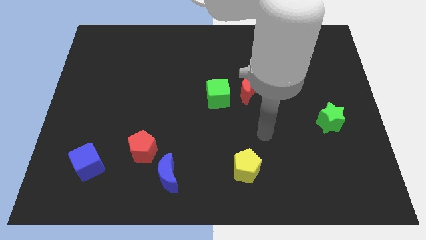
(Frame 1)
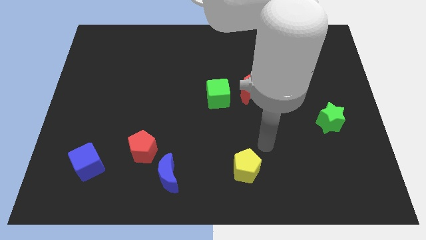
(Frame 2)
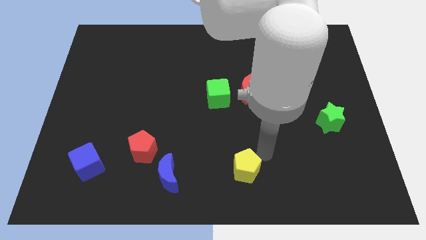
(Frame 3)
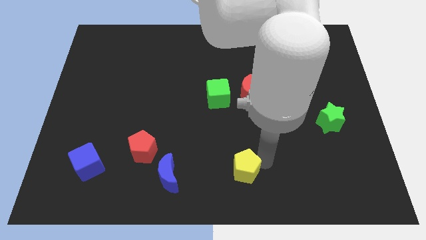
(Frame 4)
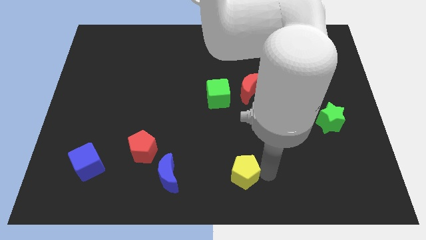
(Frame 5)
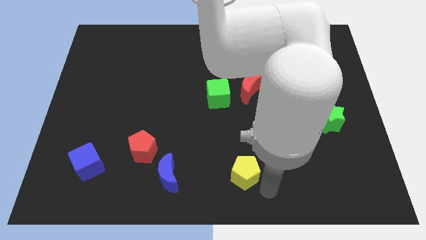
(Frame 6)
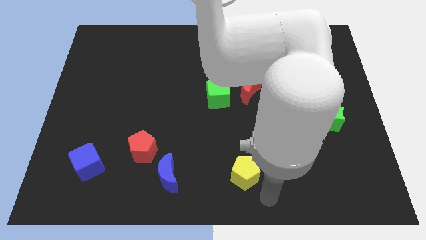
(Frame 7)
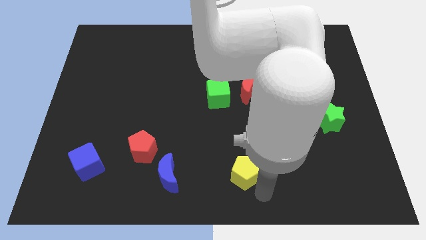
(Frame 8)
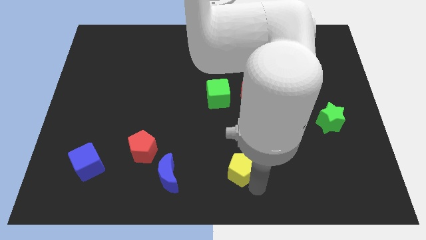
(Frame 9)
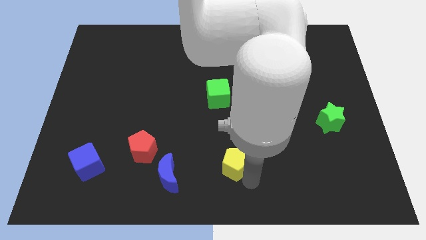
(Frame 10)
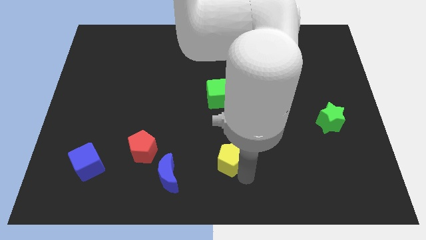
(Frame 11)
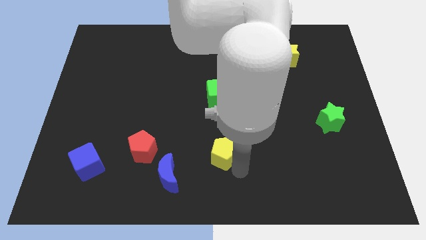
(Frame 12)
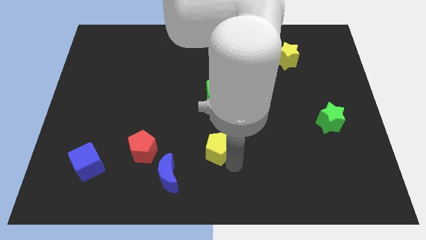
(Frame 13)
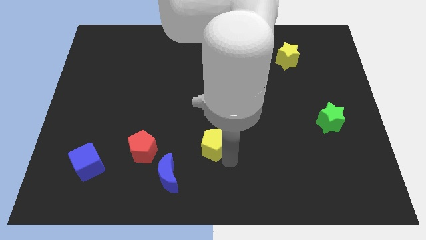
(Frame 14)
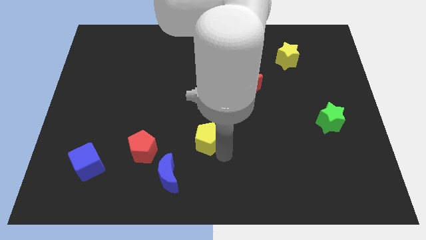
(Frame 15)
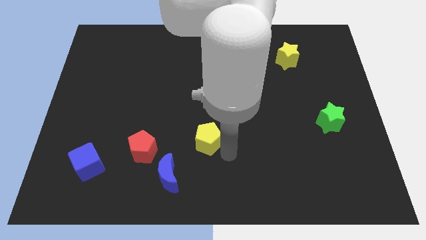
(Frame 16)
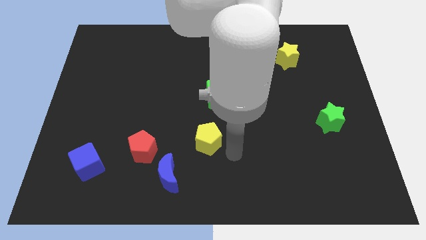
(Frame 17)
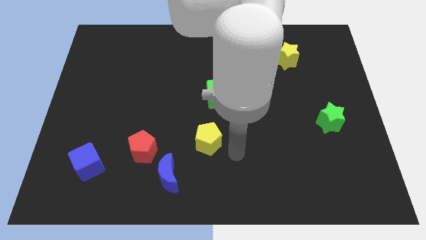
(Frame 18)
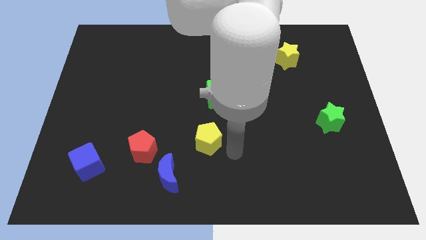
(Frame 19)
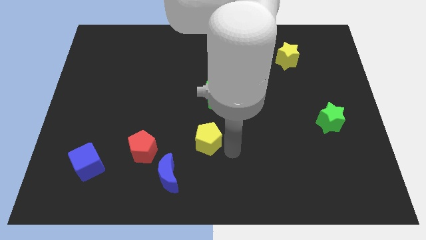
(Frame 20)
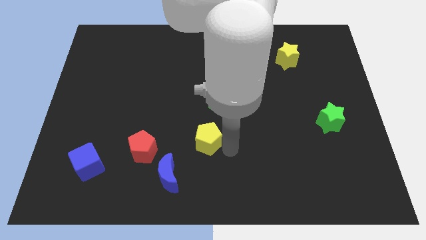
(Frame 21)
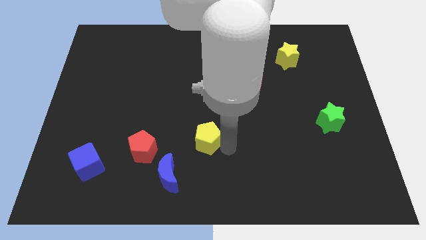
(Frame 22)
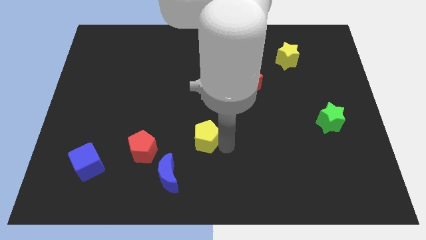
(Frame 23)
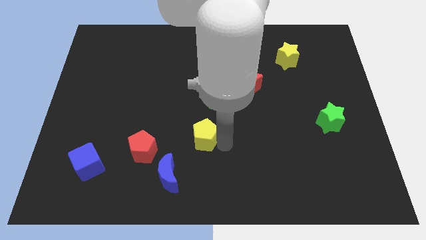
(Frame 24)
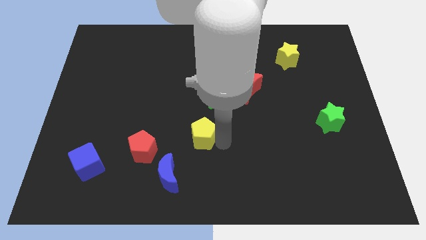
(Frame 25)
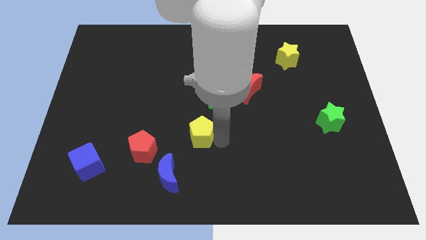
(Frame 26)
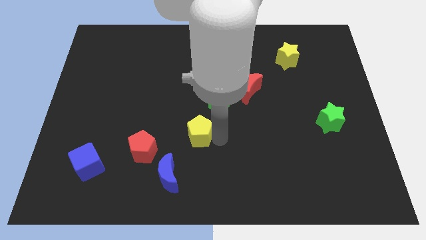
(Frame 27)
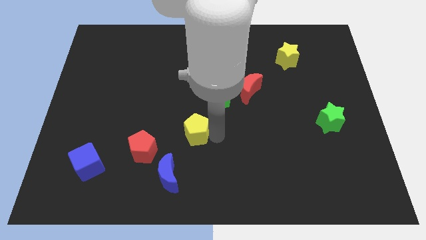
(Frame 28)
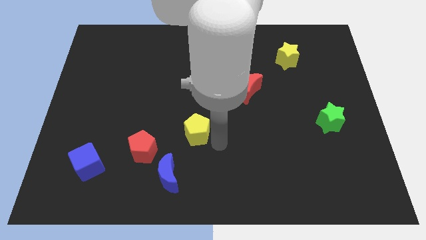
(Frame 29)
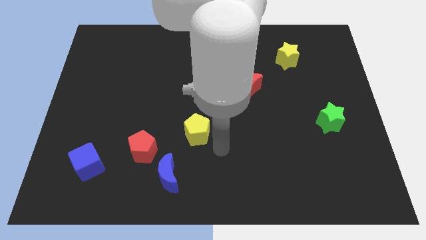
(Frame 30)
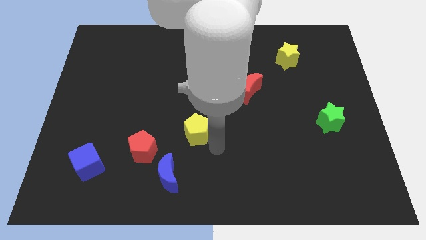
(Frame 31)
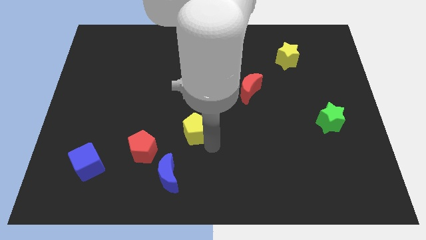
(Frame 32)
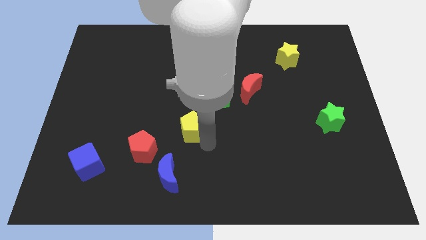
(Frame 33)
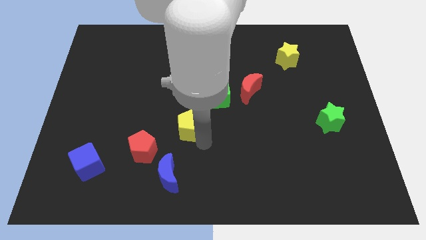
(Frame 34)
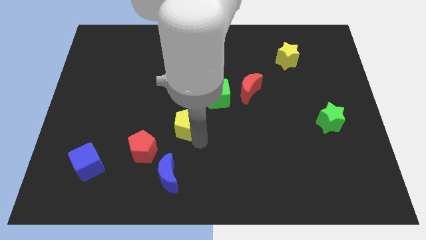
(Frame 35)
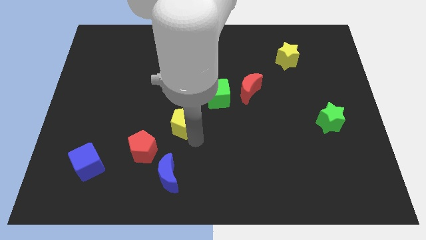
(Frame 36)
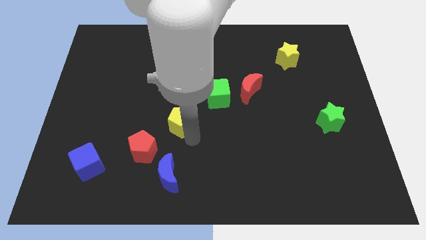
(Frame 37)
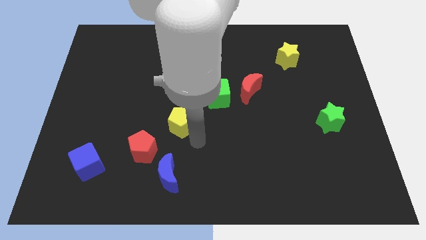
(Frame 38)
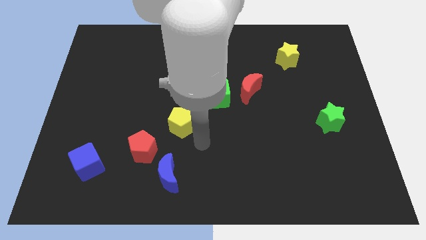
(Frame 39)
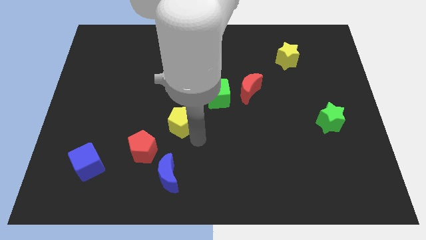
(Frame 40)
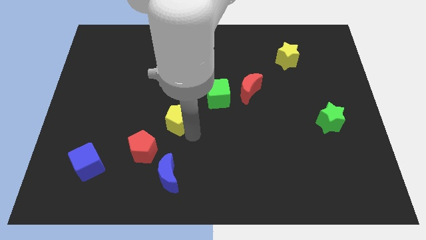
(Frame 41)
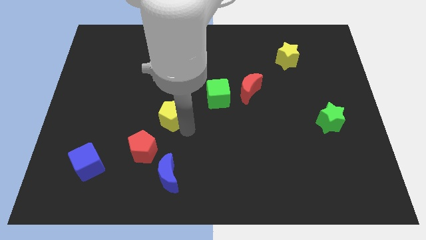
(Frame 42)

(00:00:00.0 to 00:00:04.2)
move the yellow pentagon diagonally upwards and to the left

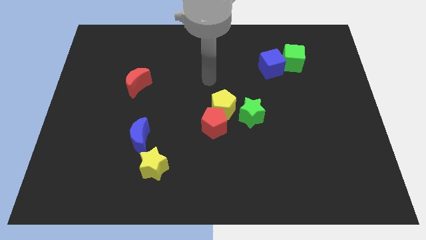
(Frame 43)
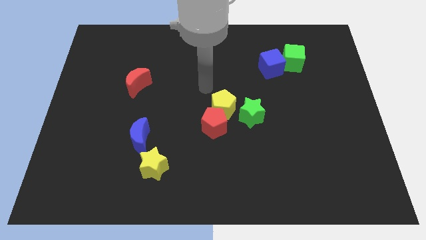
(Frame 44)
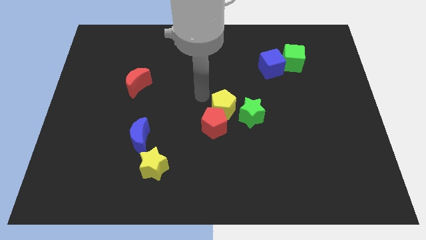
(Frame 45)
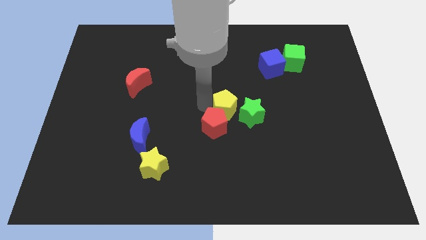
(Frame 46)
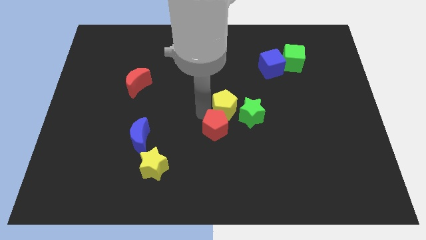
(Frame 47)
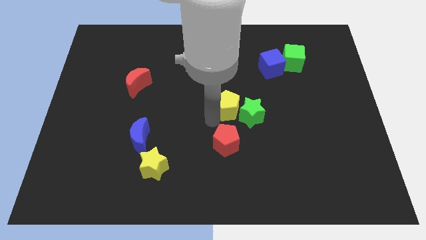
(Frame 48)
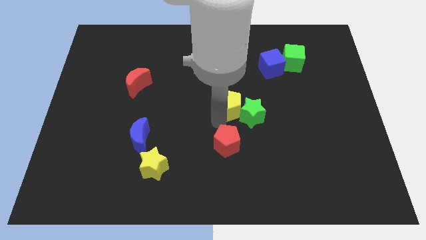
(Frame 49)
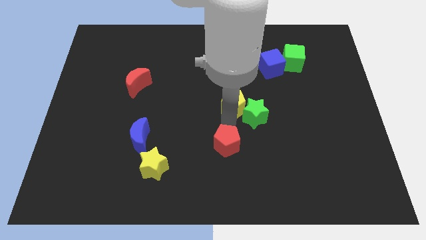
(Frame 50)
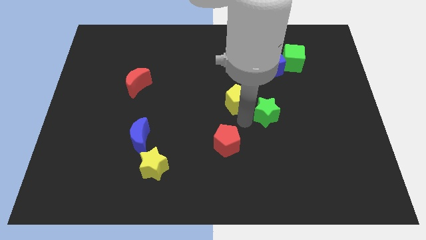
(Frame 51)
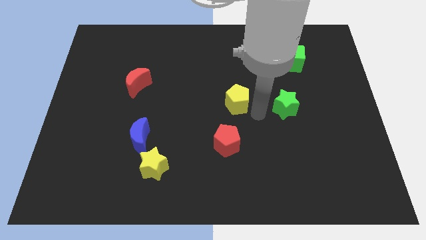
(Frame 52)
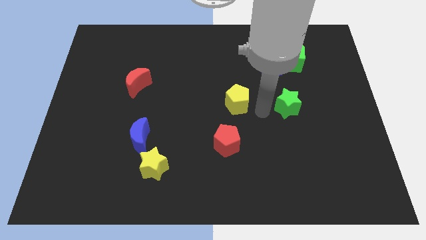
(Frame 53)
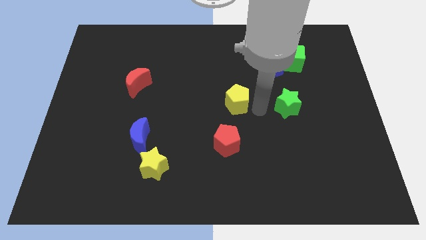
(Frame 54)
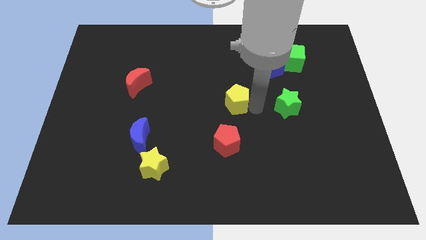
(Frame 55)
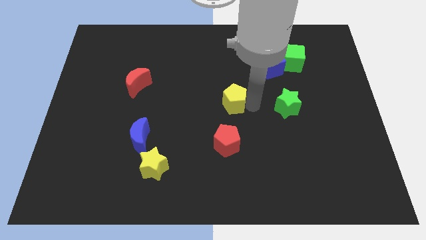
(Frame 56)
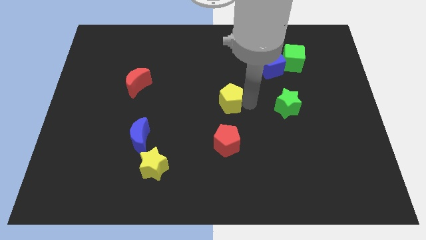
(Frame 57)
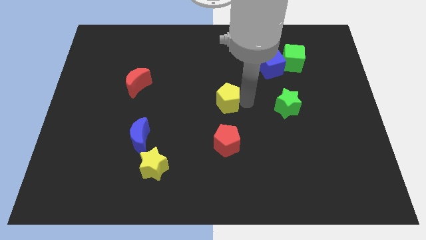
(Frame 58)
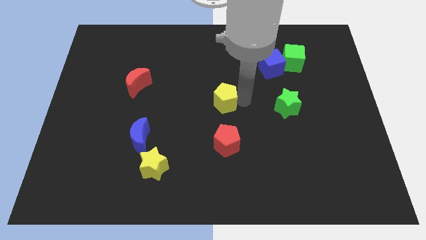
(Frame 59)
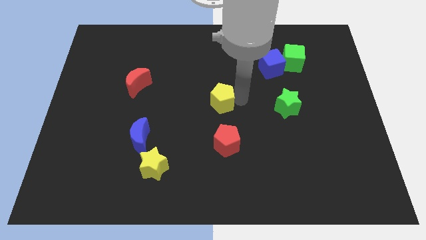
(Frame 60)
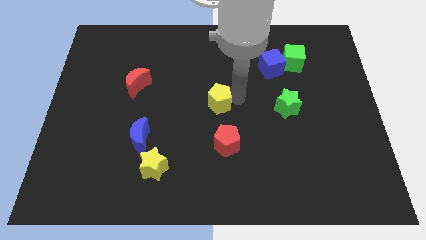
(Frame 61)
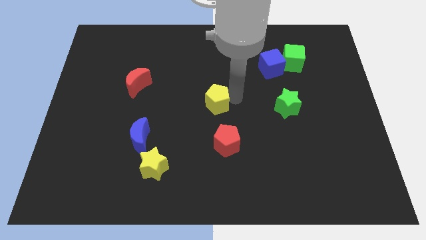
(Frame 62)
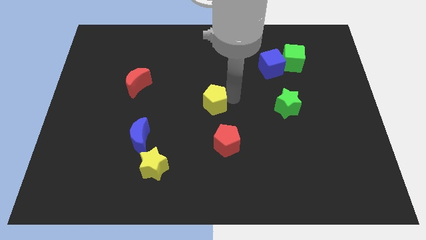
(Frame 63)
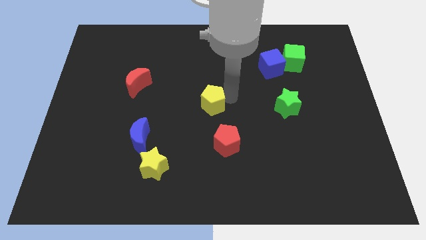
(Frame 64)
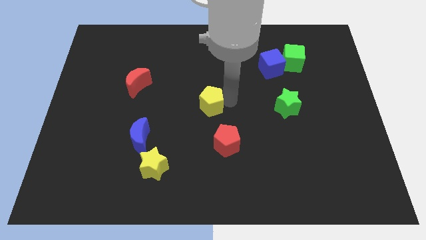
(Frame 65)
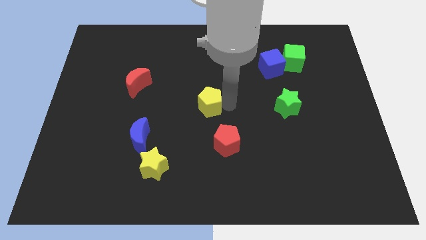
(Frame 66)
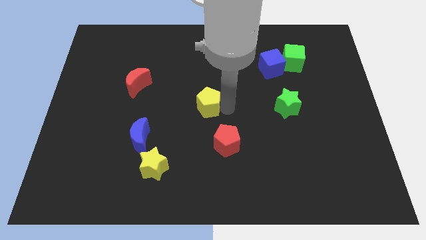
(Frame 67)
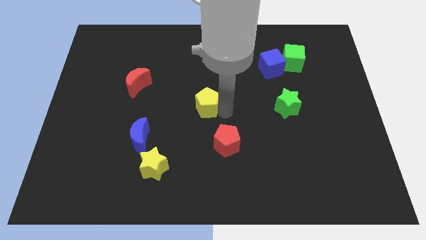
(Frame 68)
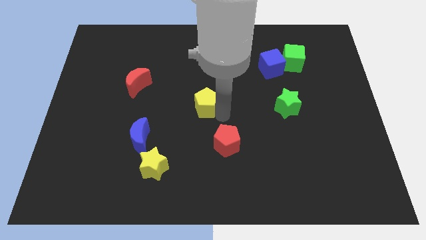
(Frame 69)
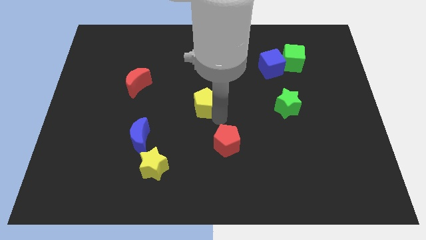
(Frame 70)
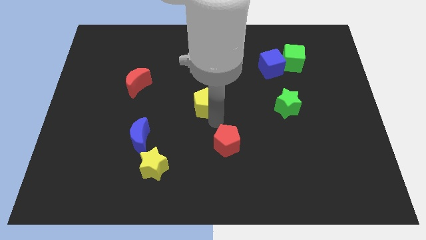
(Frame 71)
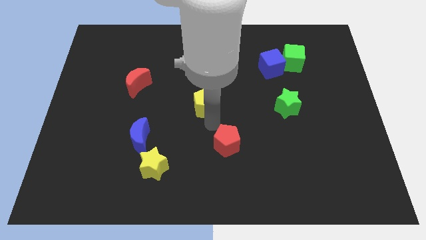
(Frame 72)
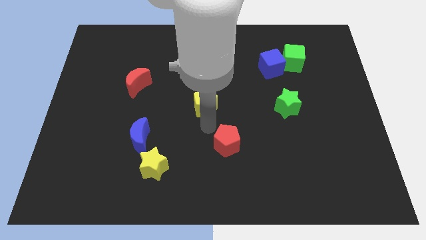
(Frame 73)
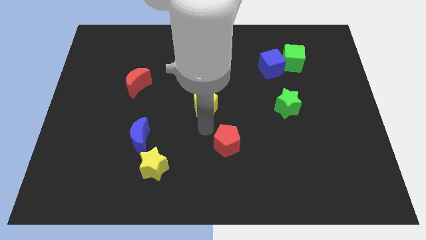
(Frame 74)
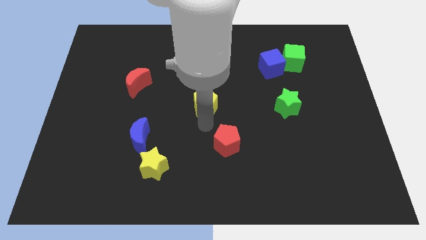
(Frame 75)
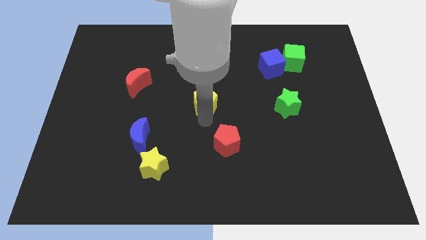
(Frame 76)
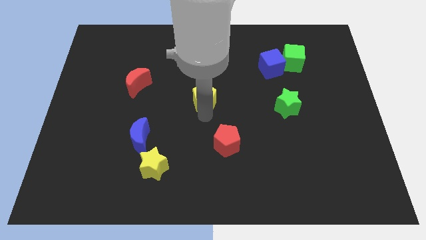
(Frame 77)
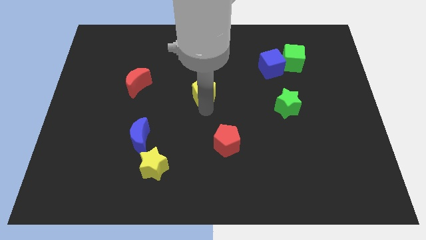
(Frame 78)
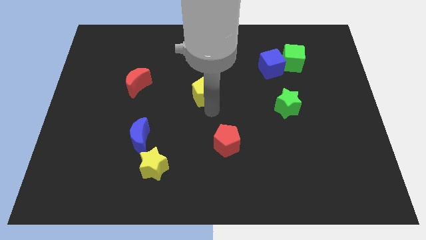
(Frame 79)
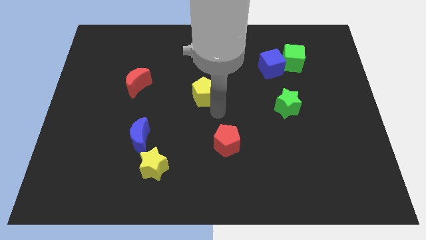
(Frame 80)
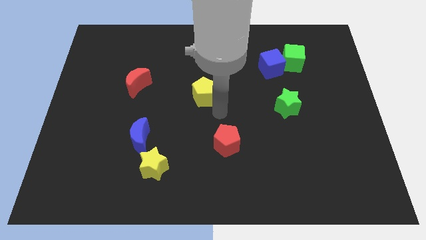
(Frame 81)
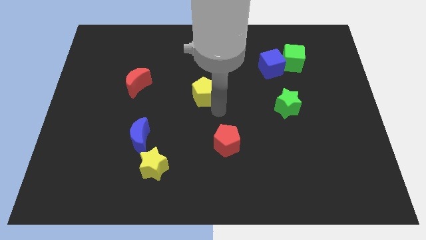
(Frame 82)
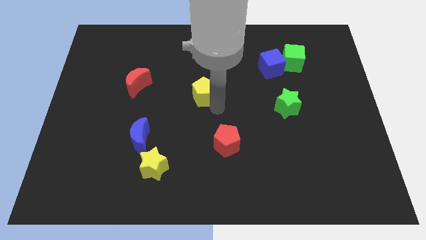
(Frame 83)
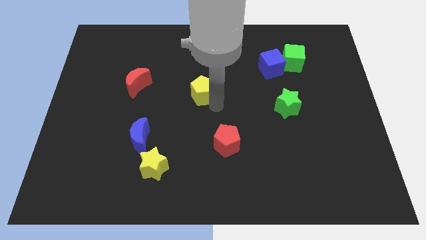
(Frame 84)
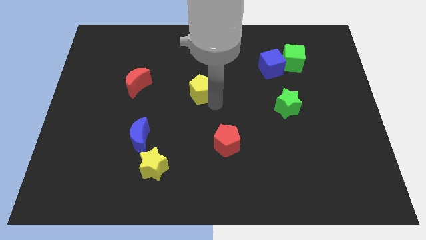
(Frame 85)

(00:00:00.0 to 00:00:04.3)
push the yellow pentagon up and left a little
